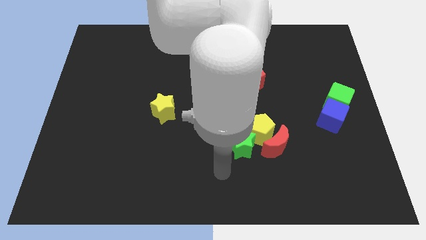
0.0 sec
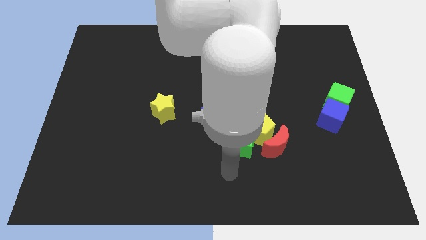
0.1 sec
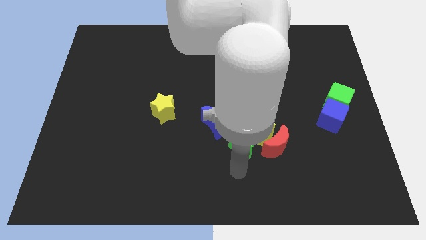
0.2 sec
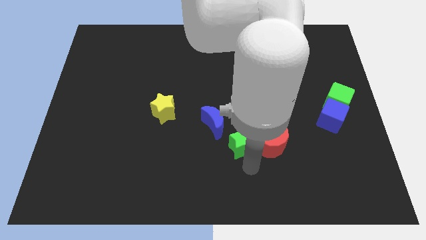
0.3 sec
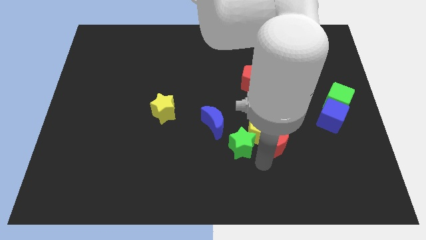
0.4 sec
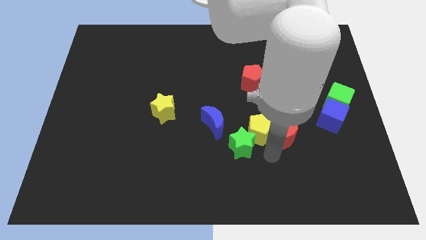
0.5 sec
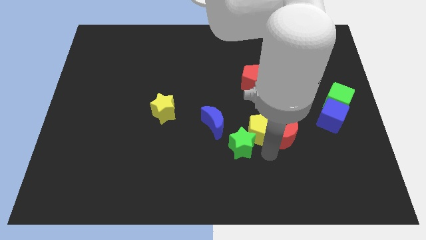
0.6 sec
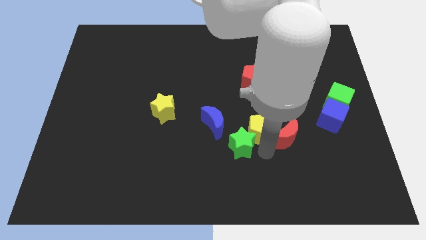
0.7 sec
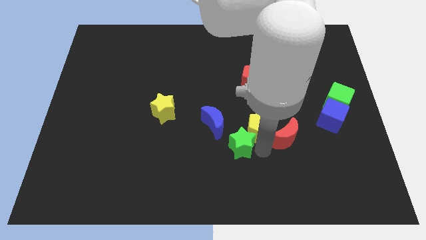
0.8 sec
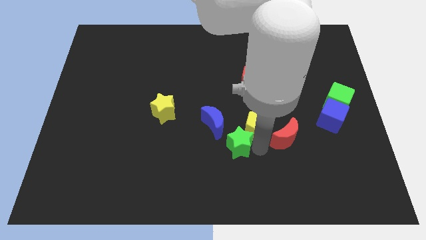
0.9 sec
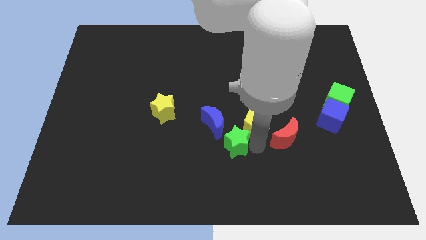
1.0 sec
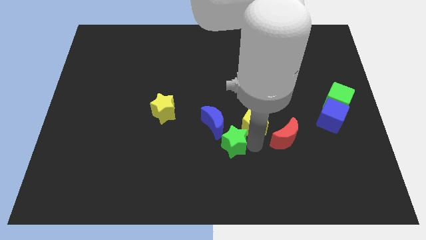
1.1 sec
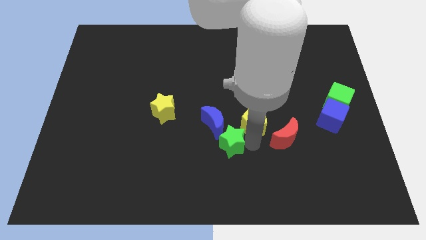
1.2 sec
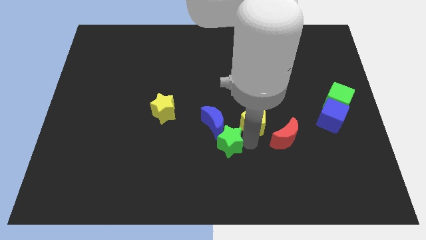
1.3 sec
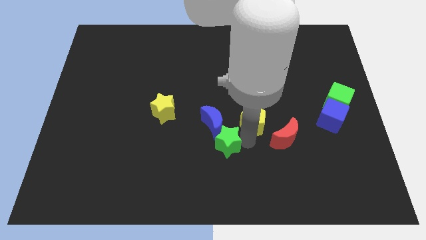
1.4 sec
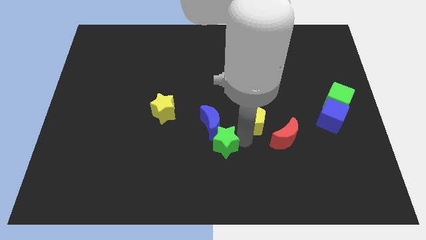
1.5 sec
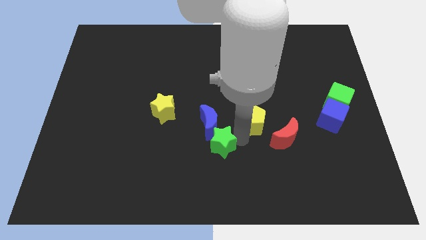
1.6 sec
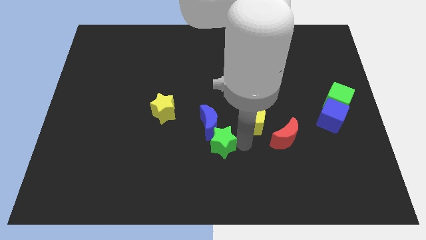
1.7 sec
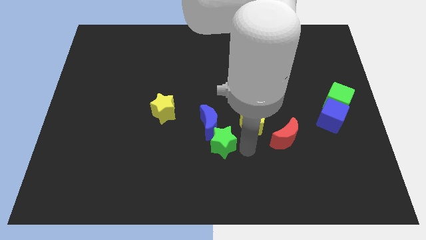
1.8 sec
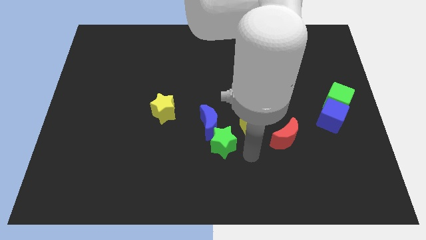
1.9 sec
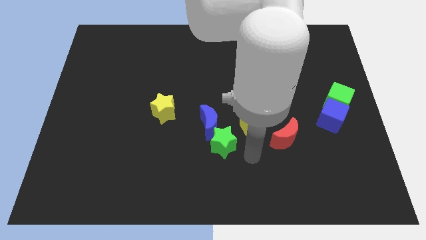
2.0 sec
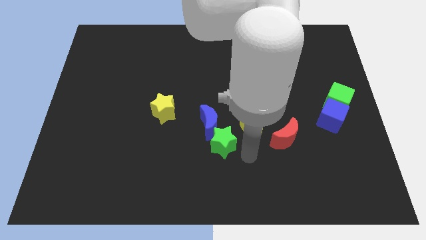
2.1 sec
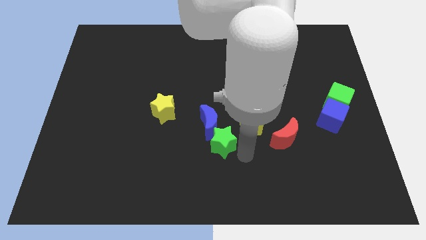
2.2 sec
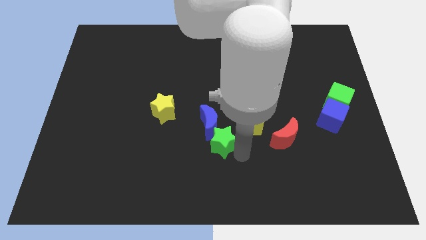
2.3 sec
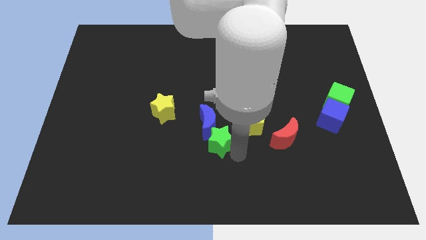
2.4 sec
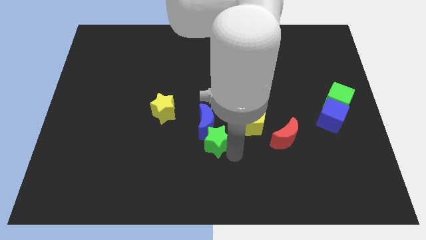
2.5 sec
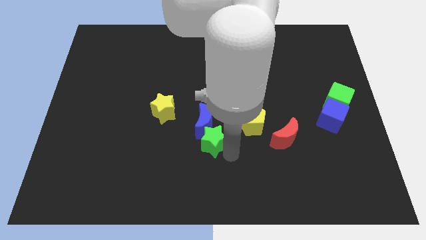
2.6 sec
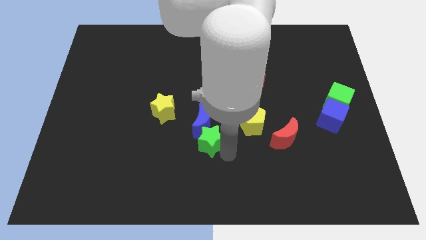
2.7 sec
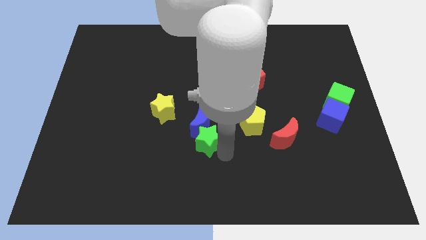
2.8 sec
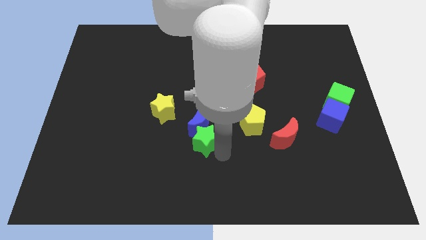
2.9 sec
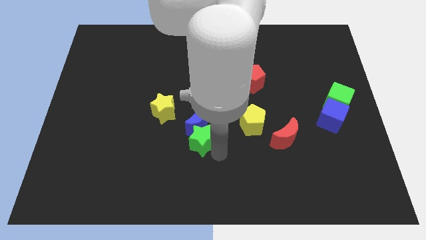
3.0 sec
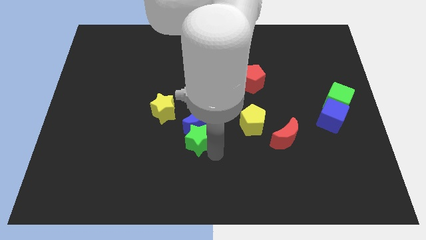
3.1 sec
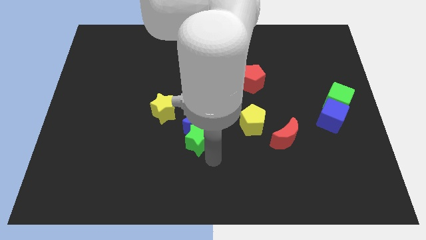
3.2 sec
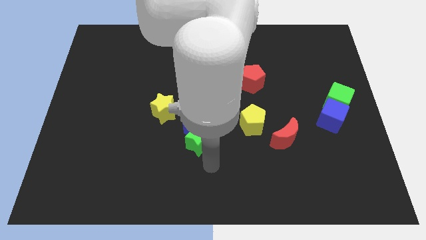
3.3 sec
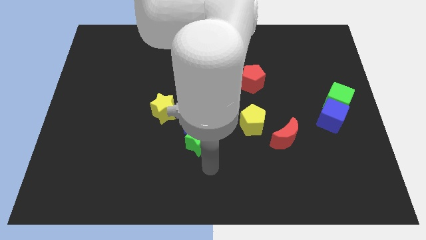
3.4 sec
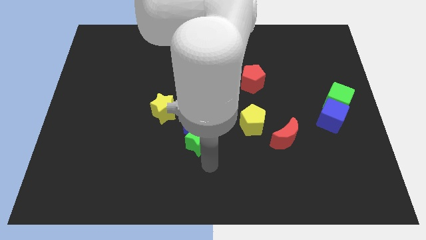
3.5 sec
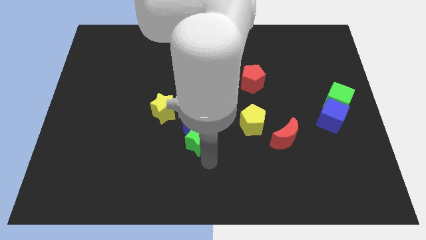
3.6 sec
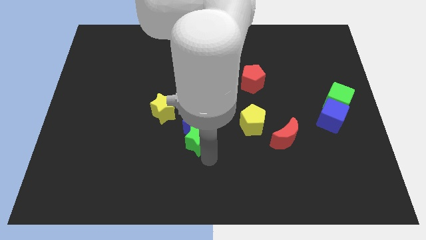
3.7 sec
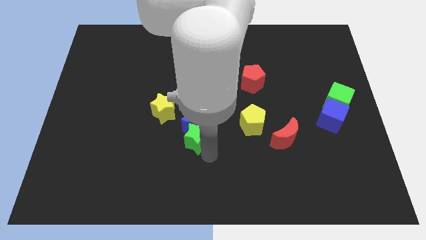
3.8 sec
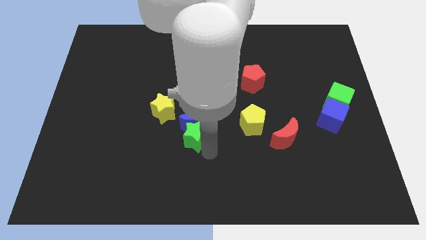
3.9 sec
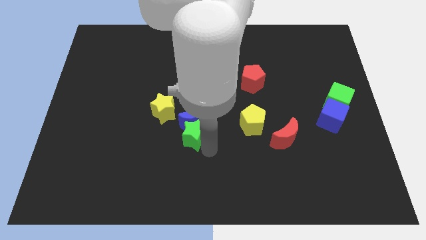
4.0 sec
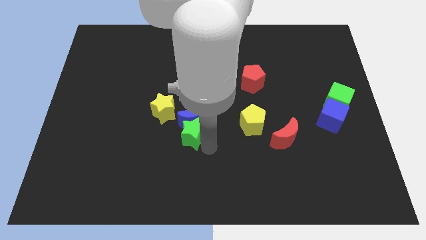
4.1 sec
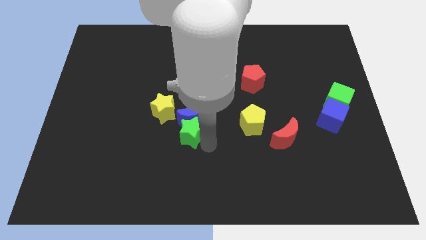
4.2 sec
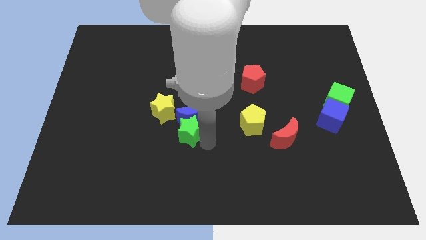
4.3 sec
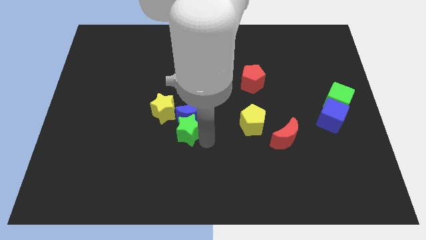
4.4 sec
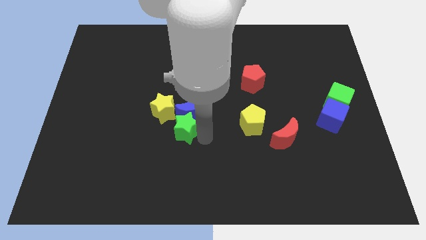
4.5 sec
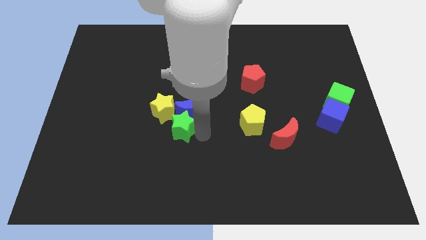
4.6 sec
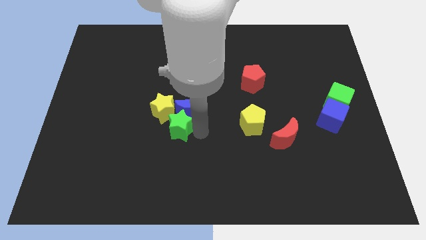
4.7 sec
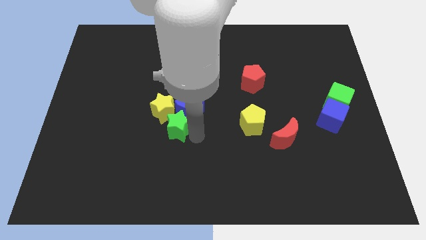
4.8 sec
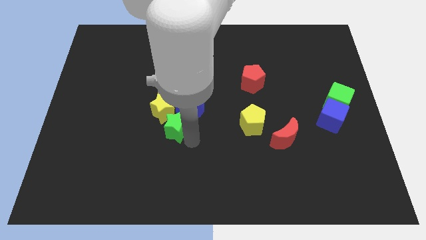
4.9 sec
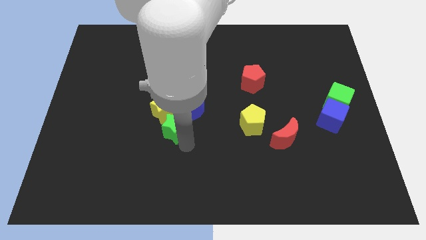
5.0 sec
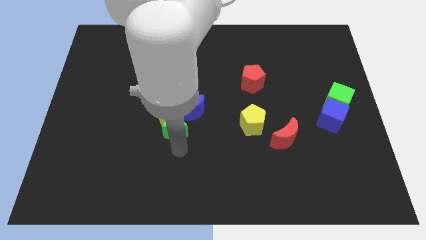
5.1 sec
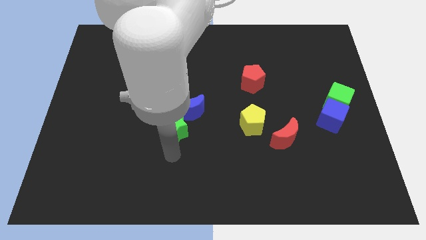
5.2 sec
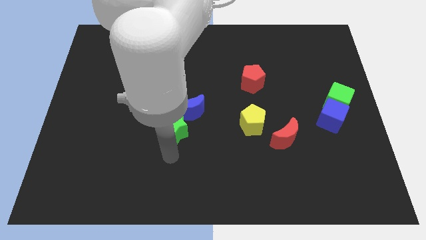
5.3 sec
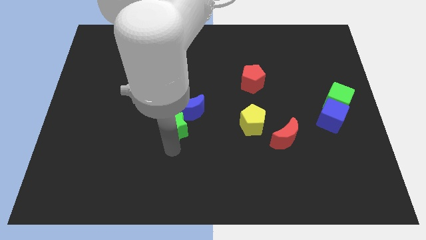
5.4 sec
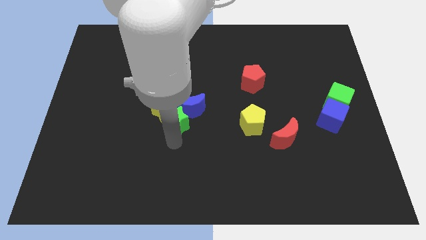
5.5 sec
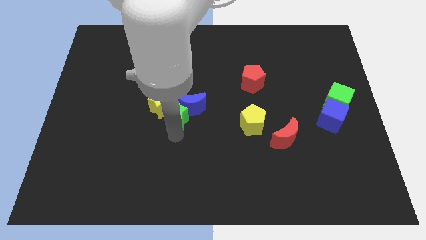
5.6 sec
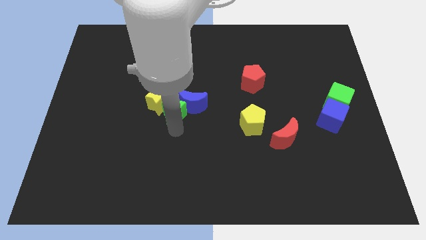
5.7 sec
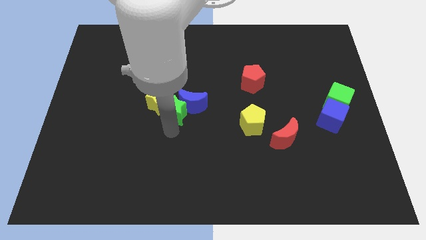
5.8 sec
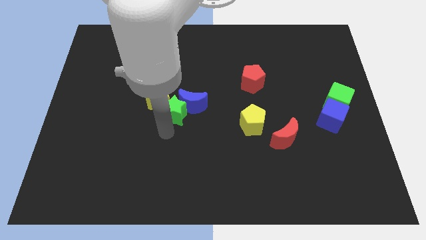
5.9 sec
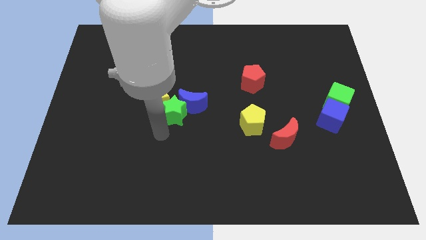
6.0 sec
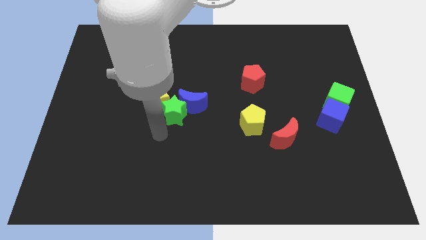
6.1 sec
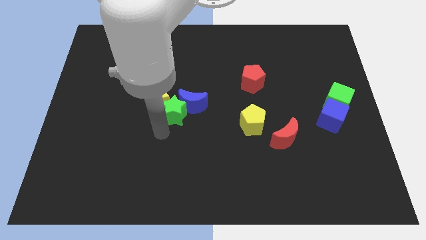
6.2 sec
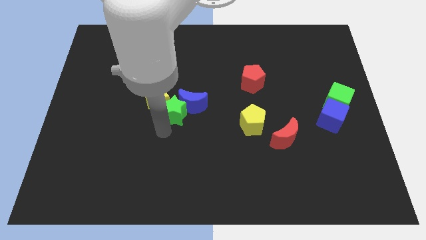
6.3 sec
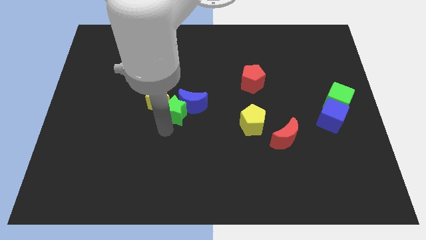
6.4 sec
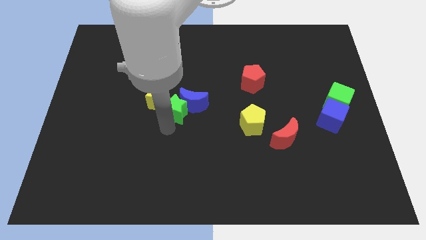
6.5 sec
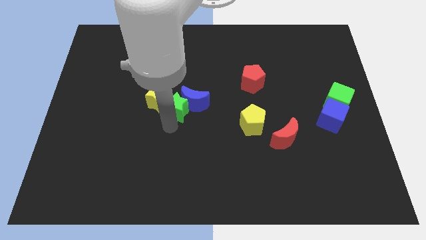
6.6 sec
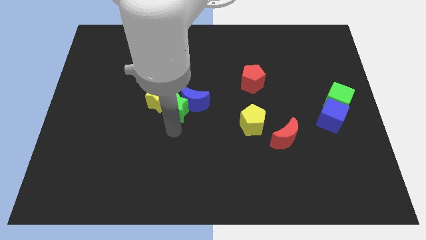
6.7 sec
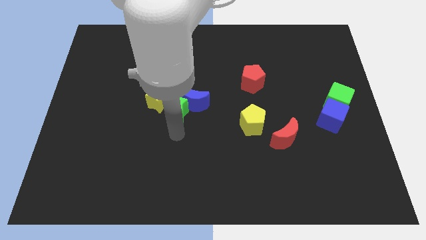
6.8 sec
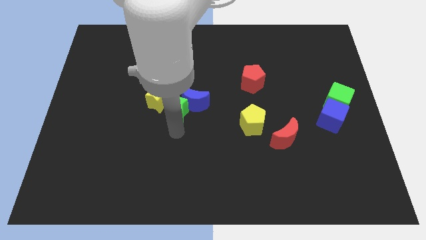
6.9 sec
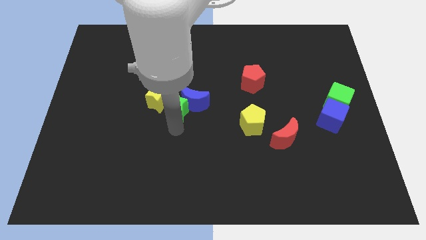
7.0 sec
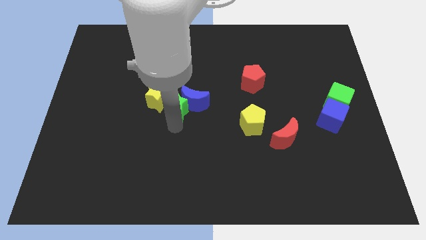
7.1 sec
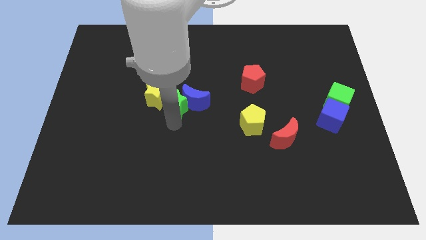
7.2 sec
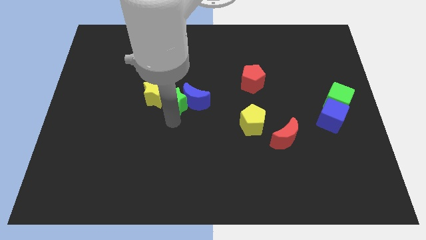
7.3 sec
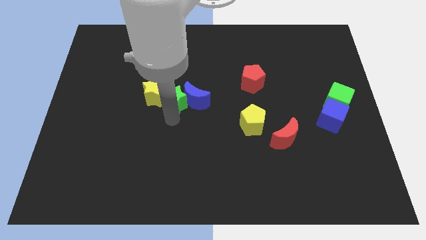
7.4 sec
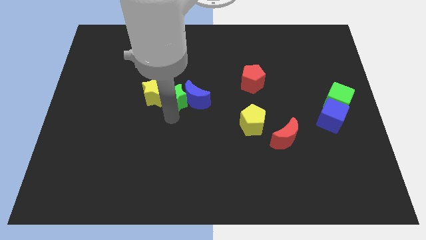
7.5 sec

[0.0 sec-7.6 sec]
move the green star up and left

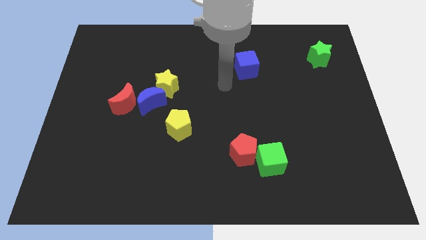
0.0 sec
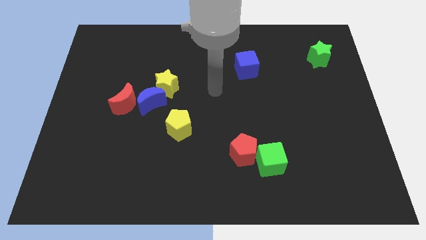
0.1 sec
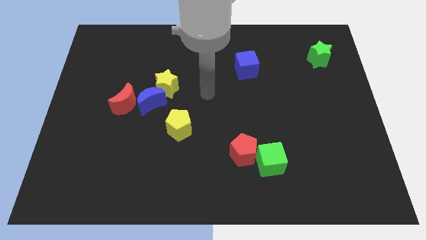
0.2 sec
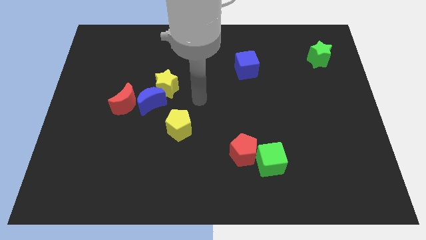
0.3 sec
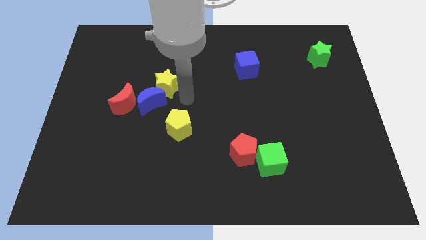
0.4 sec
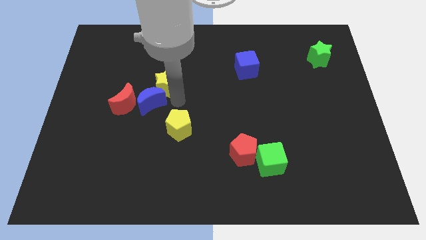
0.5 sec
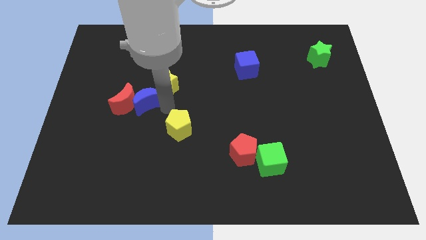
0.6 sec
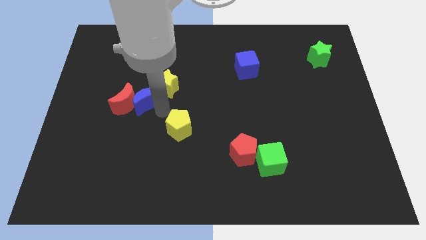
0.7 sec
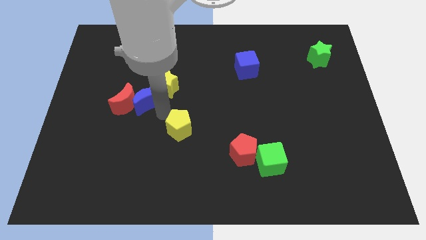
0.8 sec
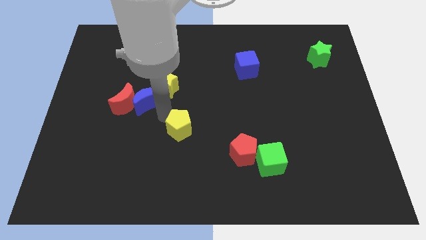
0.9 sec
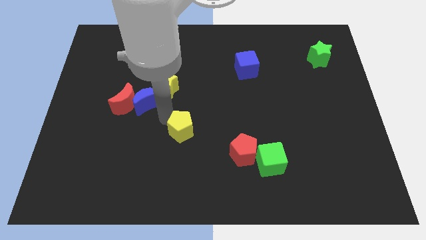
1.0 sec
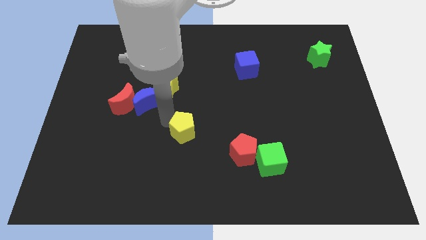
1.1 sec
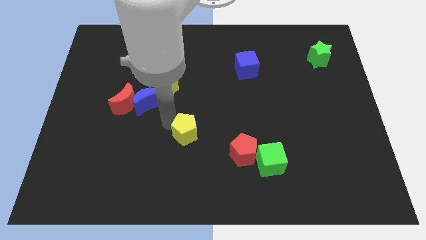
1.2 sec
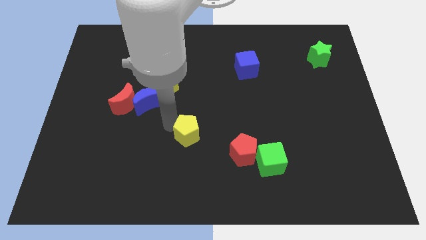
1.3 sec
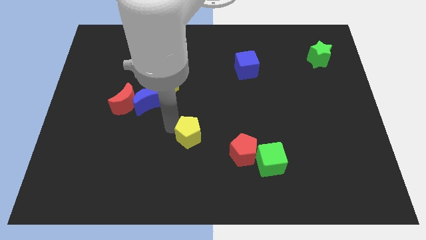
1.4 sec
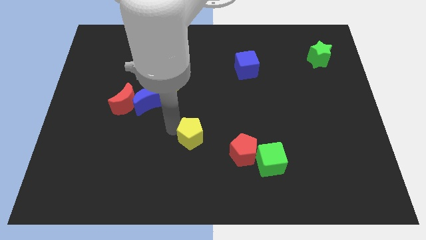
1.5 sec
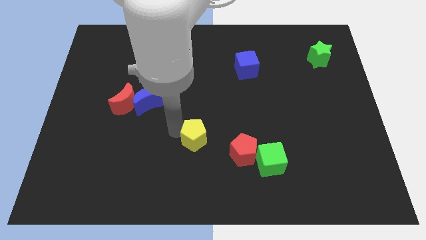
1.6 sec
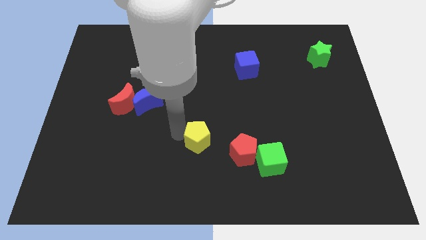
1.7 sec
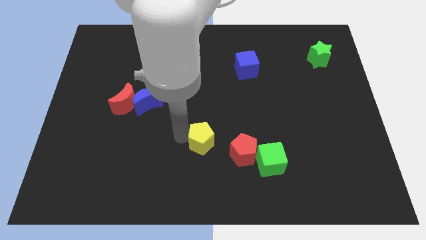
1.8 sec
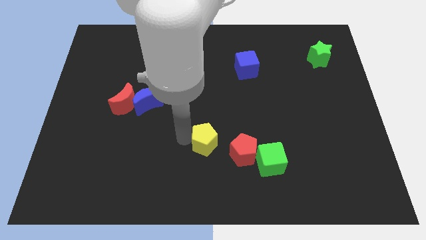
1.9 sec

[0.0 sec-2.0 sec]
slightly push the yellow pentagon down and to the right diagonally
